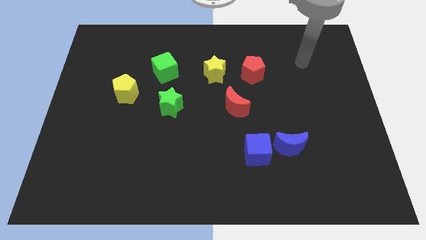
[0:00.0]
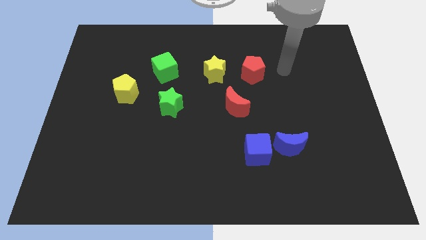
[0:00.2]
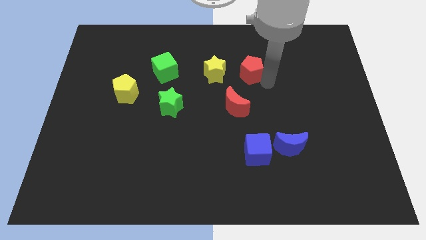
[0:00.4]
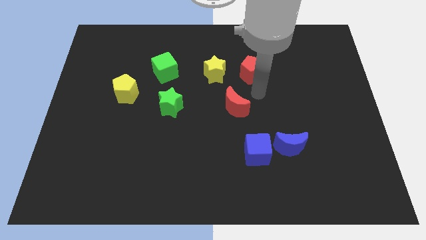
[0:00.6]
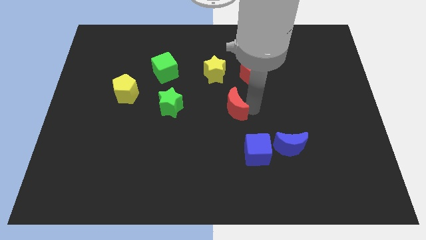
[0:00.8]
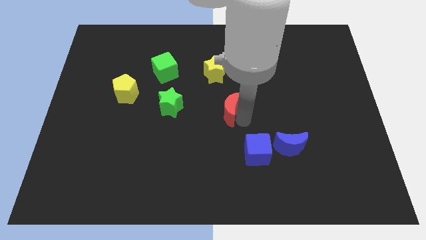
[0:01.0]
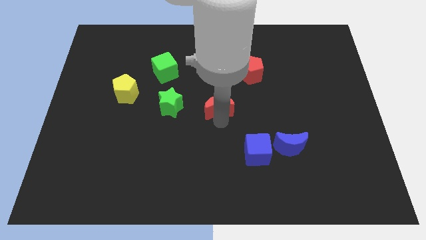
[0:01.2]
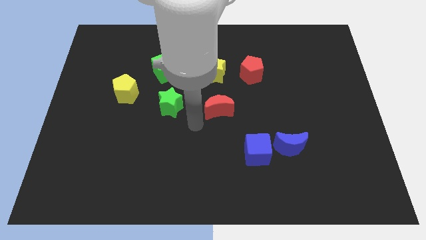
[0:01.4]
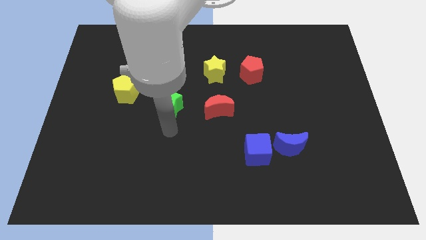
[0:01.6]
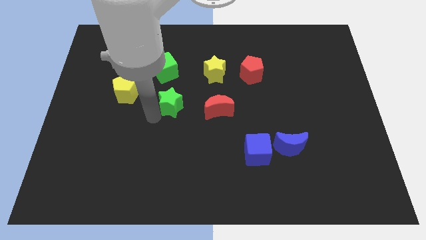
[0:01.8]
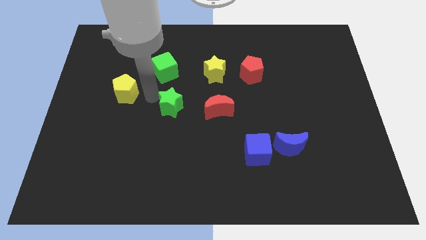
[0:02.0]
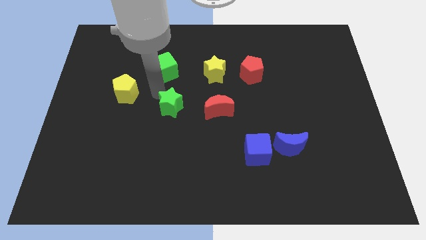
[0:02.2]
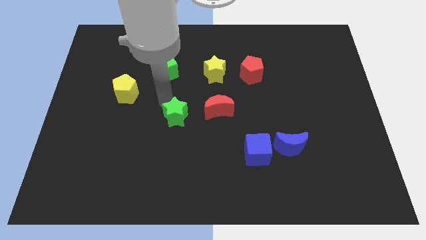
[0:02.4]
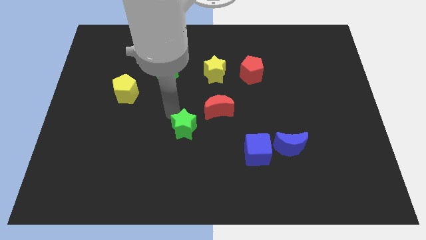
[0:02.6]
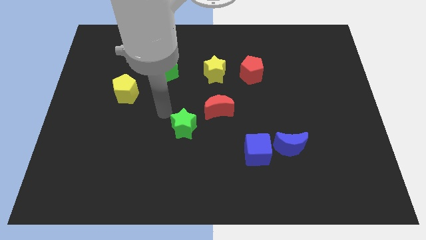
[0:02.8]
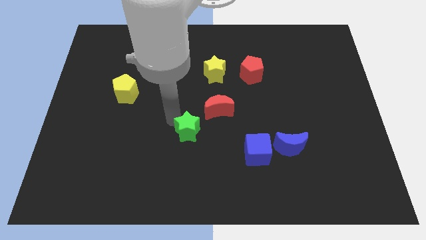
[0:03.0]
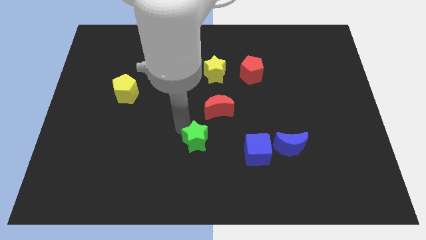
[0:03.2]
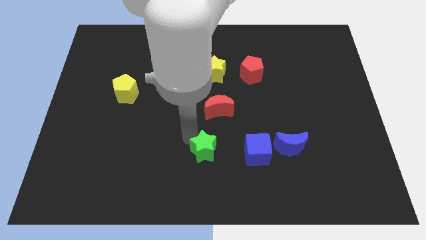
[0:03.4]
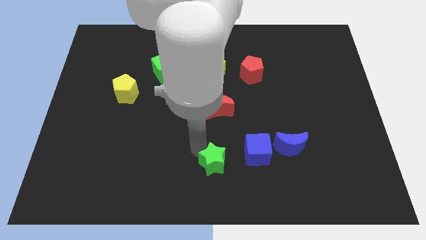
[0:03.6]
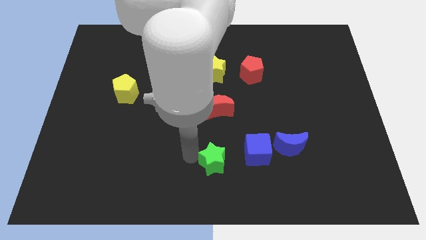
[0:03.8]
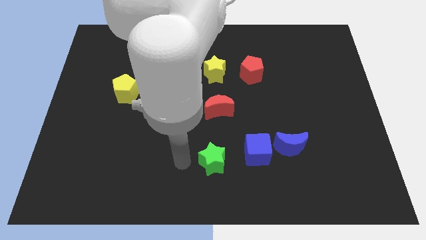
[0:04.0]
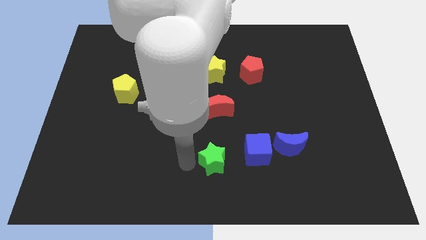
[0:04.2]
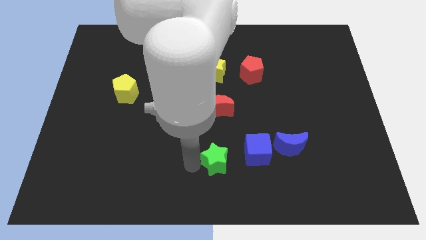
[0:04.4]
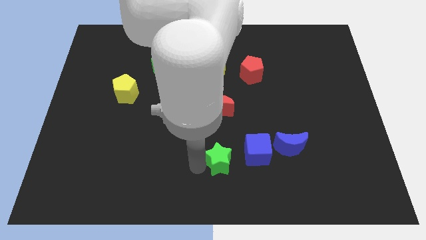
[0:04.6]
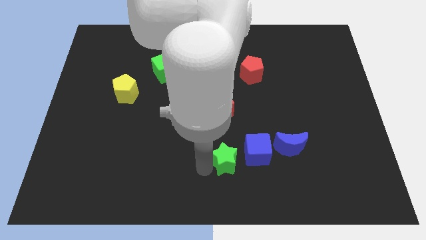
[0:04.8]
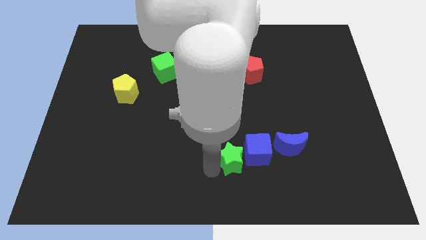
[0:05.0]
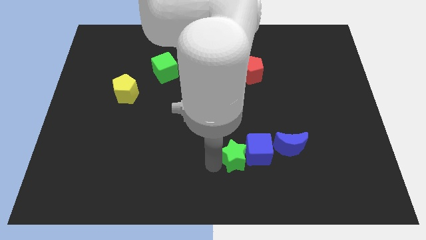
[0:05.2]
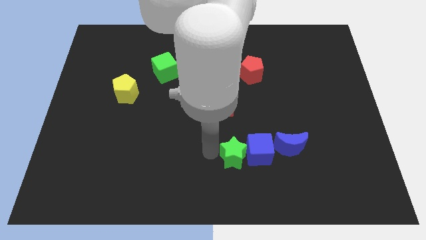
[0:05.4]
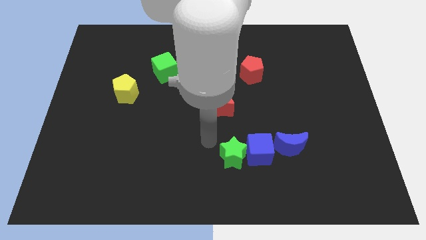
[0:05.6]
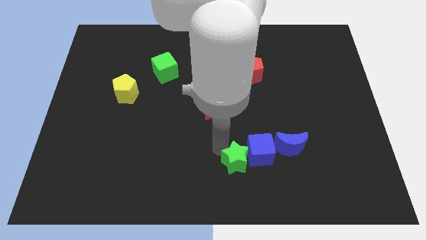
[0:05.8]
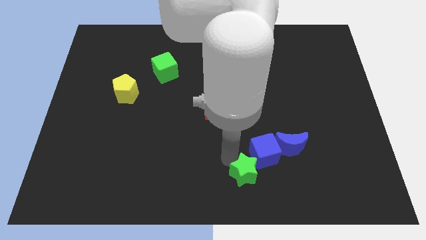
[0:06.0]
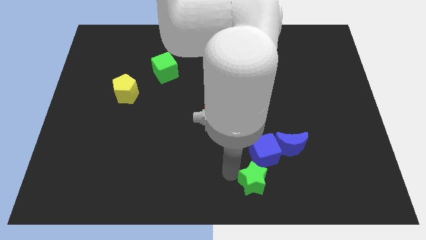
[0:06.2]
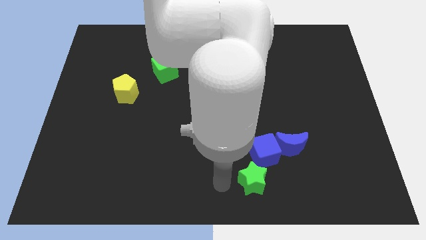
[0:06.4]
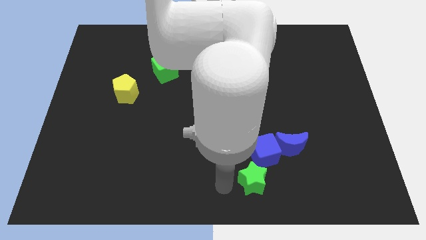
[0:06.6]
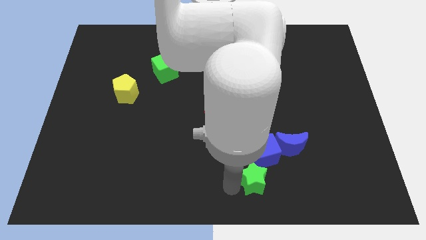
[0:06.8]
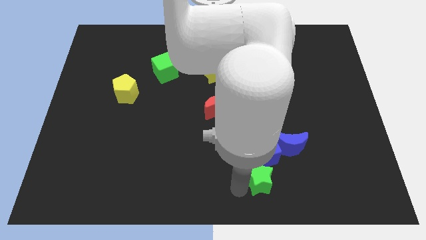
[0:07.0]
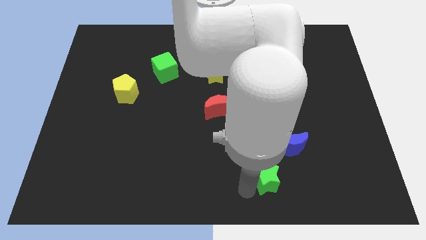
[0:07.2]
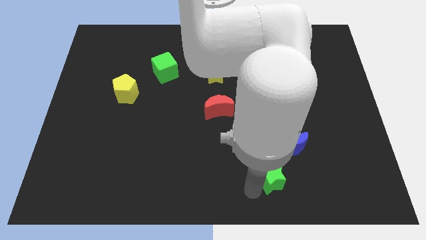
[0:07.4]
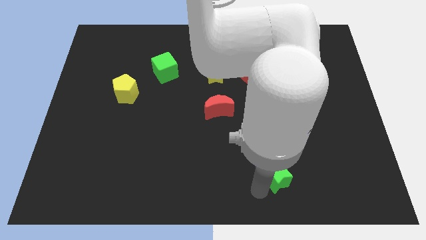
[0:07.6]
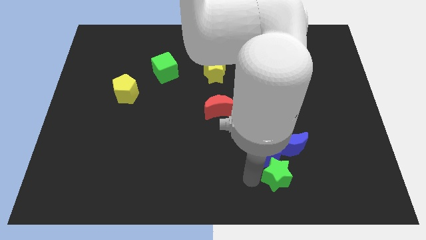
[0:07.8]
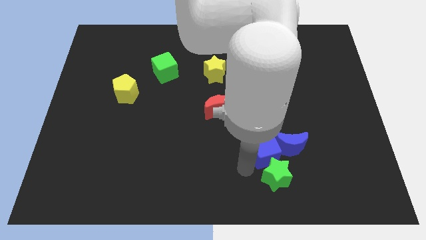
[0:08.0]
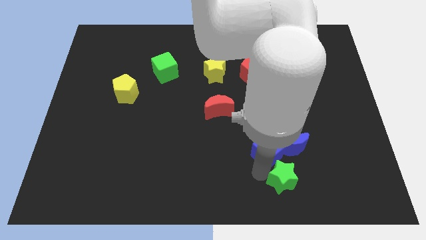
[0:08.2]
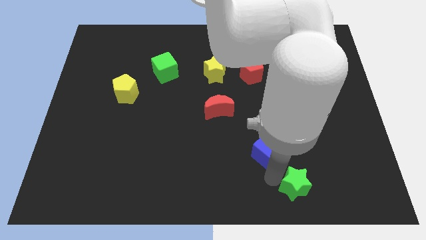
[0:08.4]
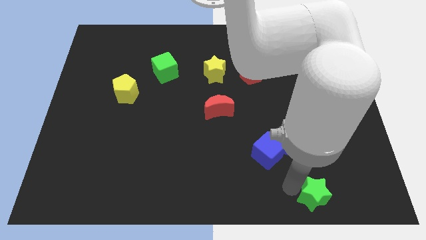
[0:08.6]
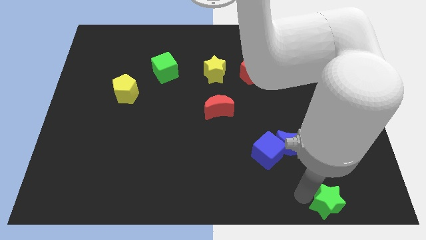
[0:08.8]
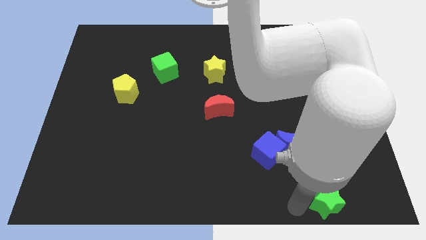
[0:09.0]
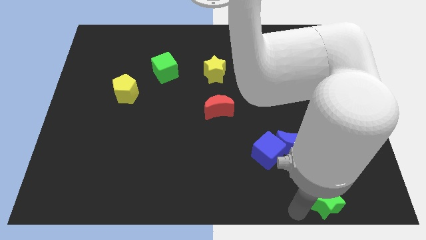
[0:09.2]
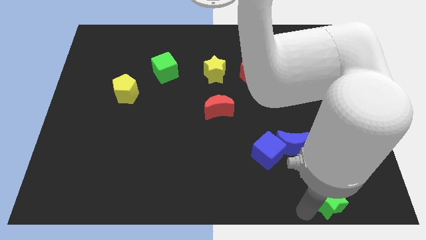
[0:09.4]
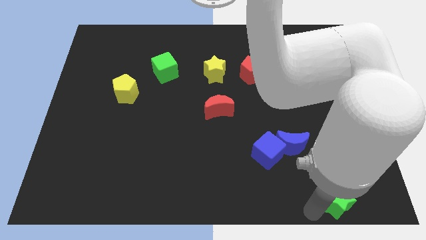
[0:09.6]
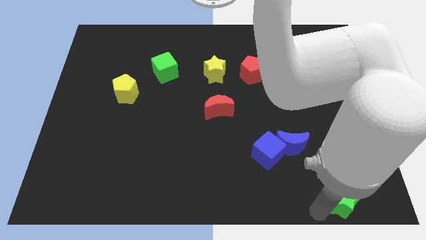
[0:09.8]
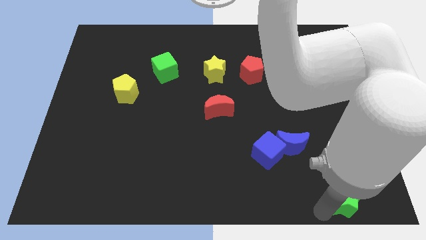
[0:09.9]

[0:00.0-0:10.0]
push the green star to the bottom right

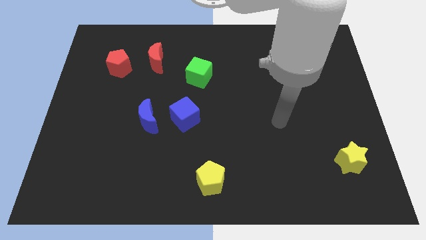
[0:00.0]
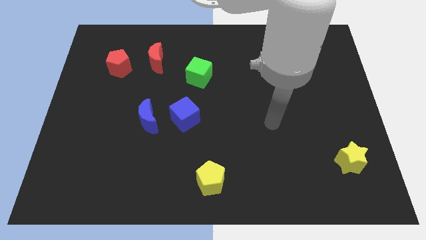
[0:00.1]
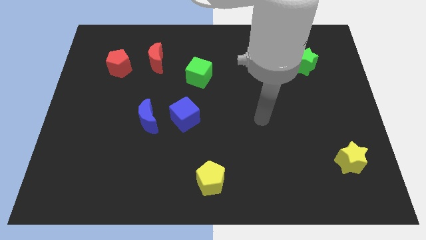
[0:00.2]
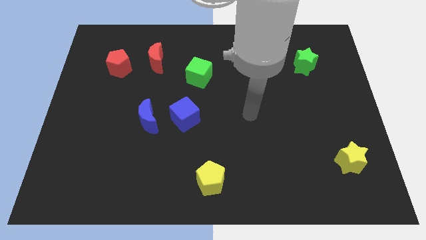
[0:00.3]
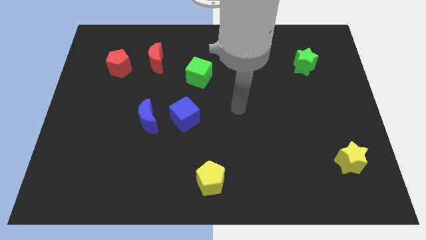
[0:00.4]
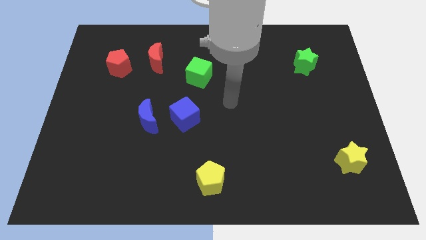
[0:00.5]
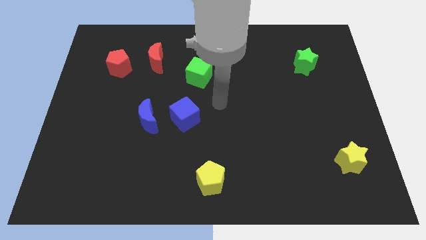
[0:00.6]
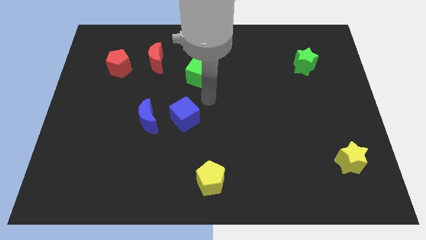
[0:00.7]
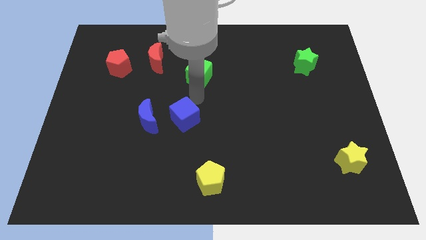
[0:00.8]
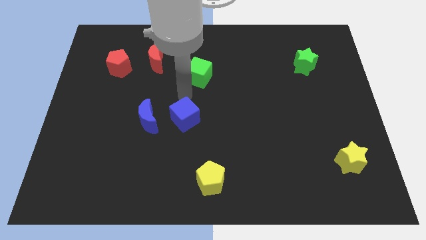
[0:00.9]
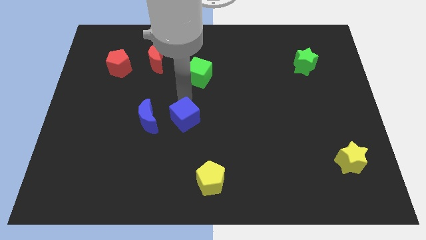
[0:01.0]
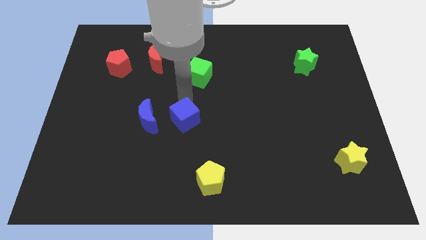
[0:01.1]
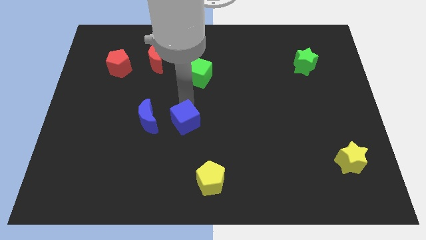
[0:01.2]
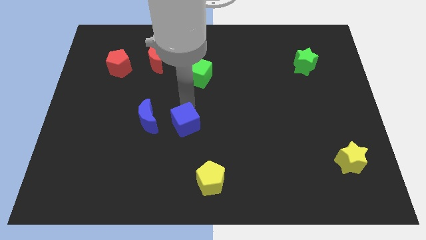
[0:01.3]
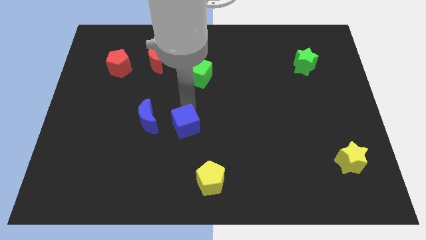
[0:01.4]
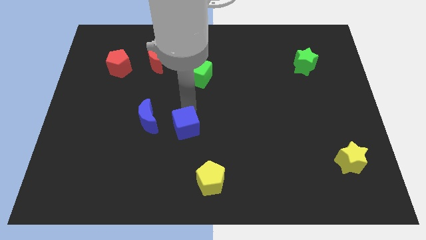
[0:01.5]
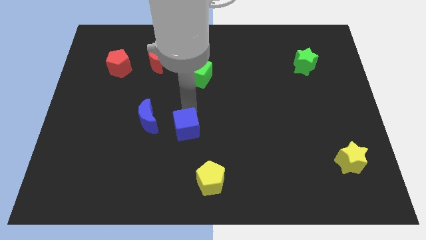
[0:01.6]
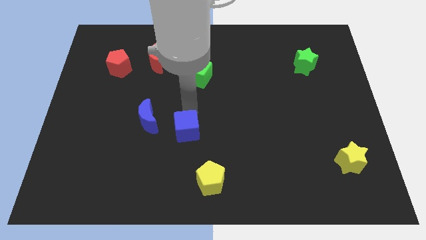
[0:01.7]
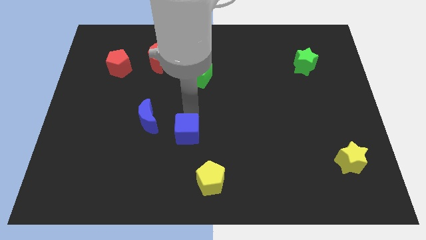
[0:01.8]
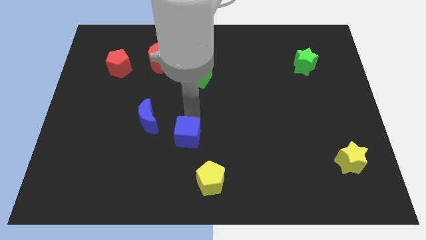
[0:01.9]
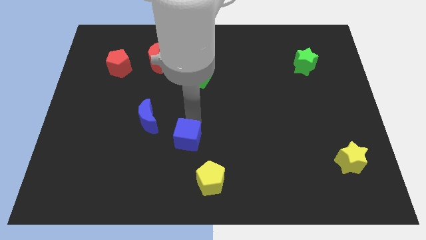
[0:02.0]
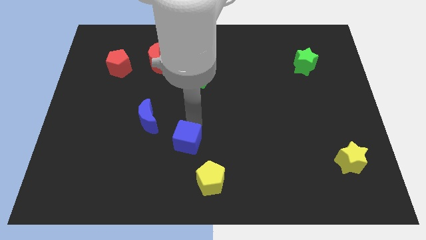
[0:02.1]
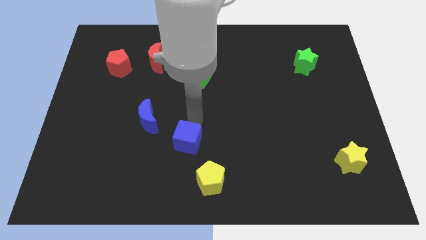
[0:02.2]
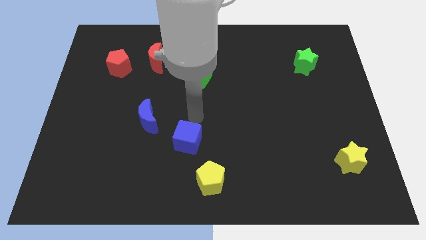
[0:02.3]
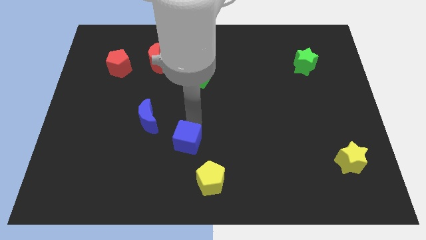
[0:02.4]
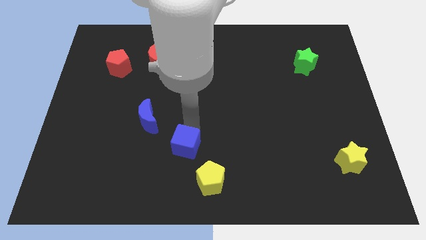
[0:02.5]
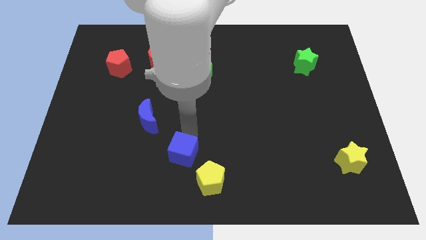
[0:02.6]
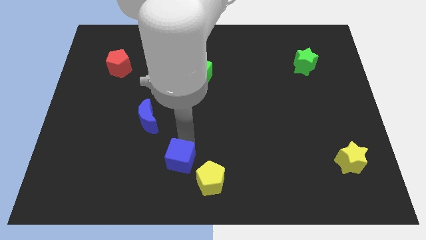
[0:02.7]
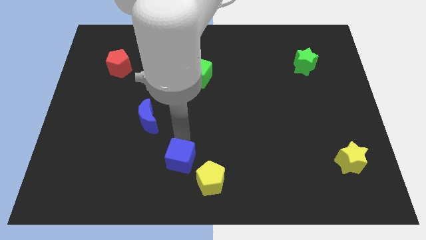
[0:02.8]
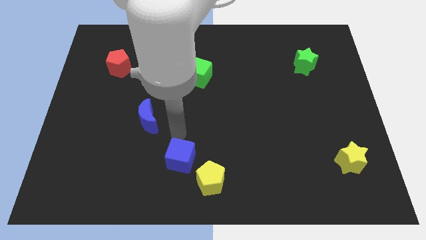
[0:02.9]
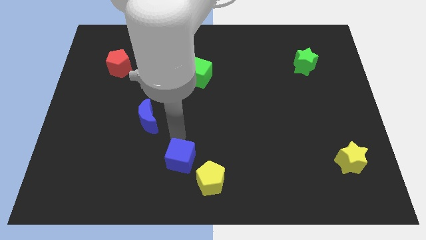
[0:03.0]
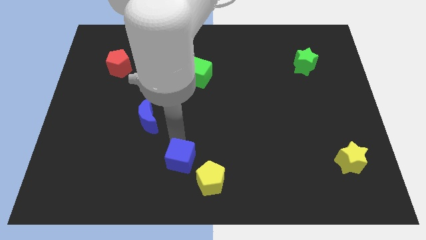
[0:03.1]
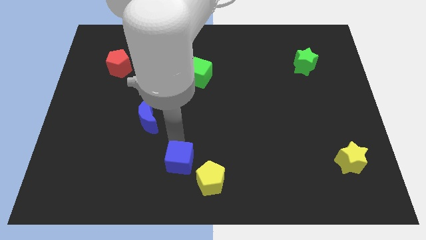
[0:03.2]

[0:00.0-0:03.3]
push the blue cube to the bottom side
